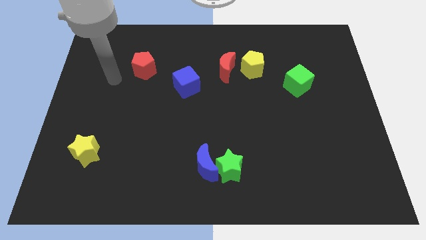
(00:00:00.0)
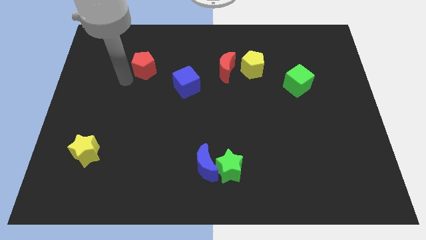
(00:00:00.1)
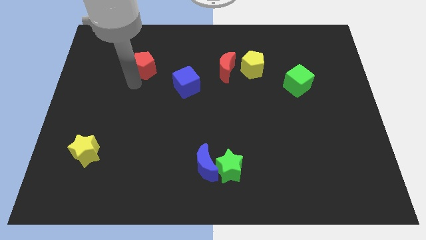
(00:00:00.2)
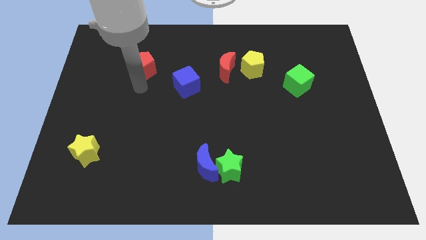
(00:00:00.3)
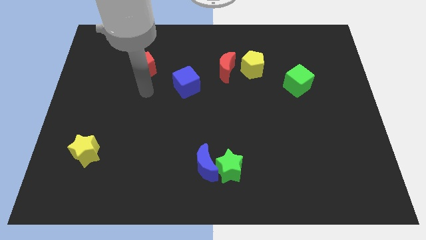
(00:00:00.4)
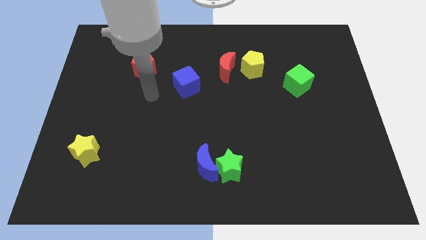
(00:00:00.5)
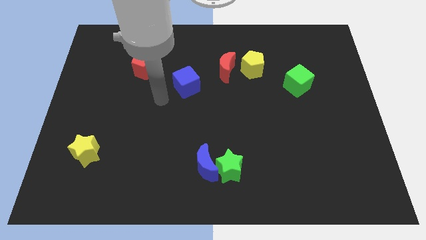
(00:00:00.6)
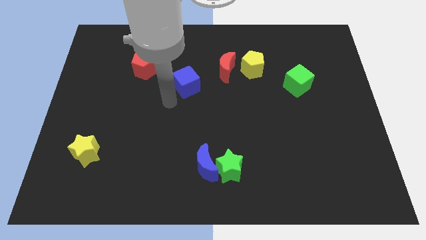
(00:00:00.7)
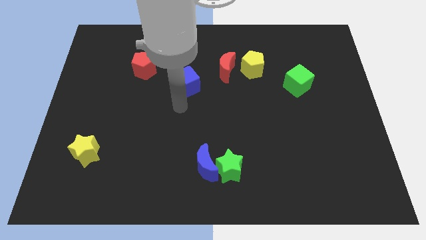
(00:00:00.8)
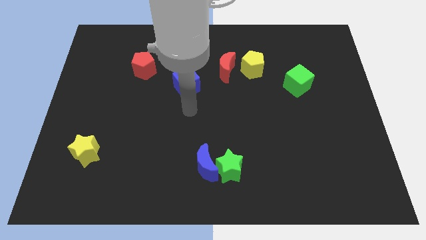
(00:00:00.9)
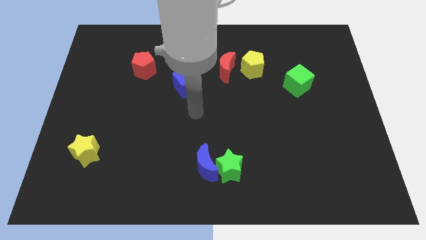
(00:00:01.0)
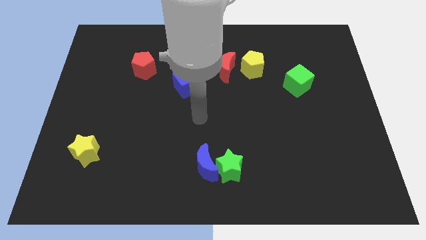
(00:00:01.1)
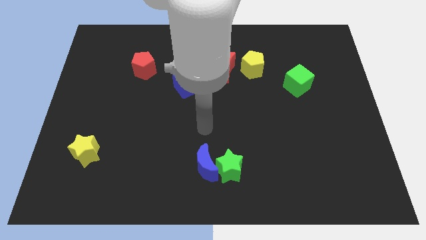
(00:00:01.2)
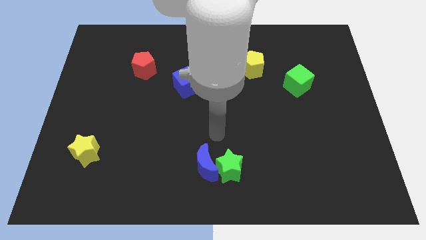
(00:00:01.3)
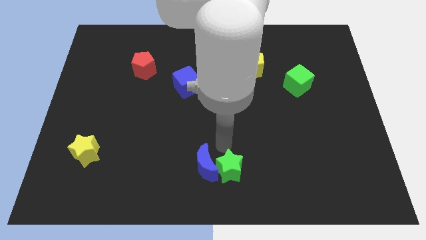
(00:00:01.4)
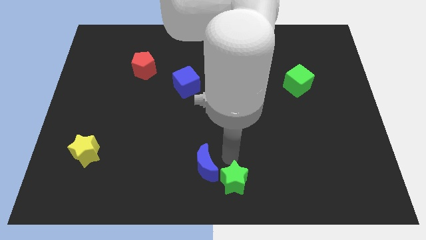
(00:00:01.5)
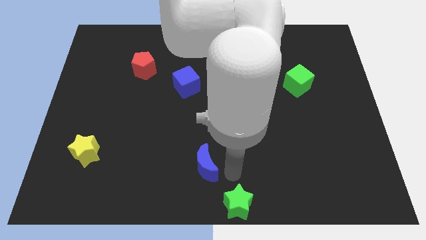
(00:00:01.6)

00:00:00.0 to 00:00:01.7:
separate the blue moon from the green star

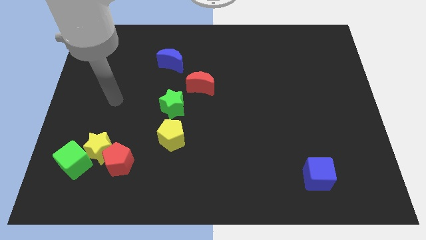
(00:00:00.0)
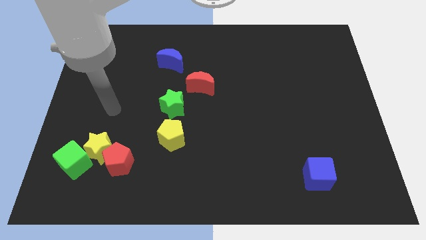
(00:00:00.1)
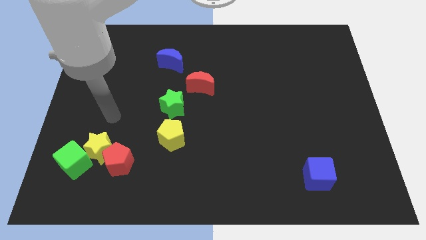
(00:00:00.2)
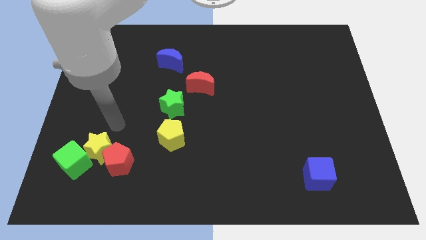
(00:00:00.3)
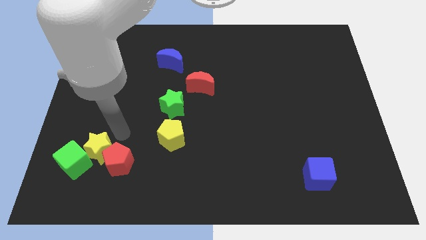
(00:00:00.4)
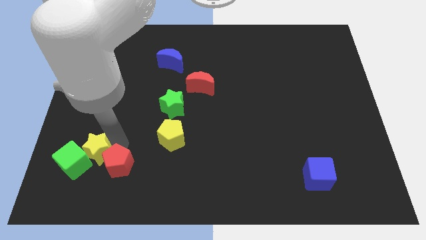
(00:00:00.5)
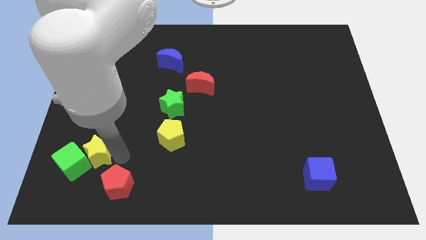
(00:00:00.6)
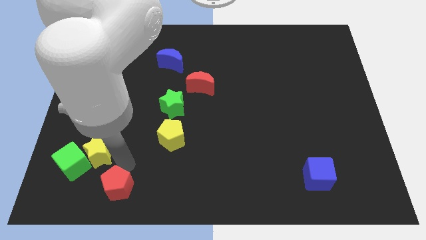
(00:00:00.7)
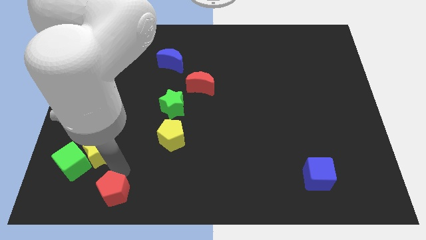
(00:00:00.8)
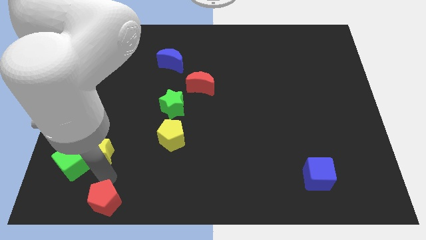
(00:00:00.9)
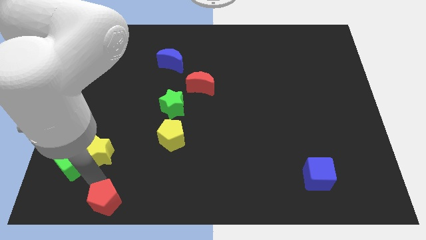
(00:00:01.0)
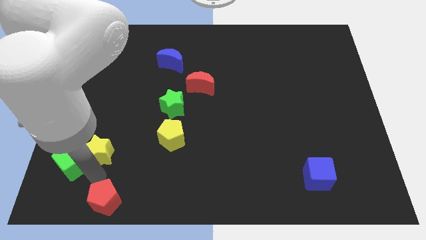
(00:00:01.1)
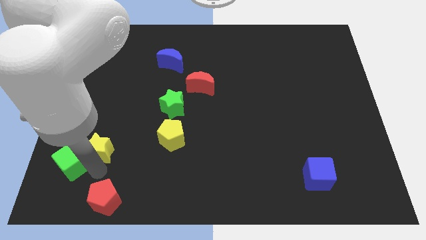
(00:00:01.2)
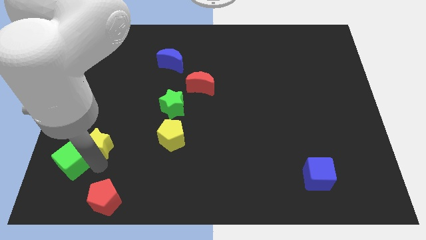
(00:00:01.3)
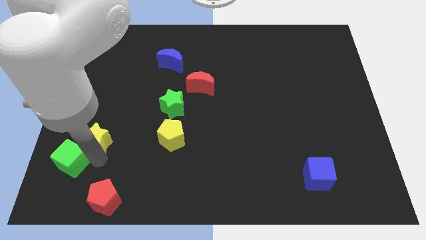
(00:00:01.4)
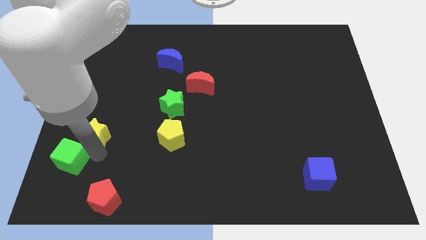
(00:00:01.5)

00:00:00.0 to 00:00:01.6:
move the yellow star away from the red pentagon and green cube

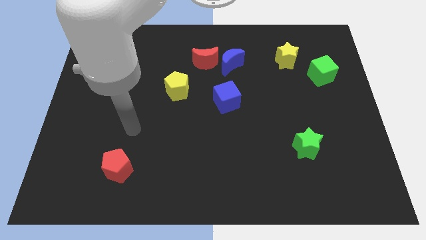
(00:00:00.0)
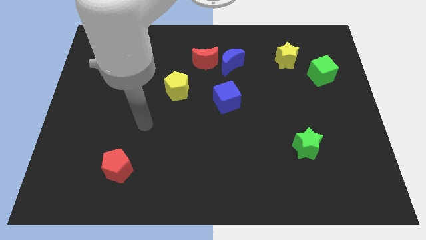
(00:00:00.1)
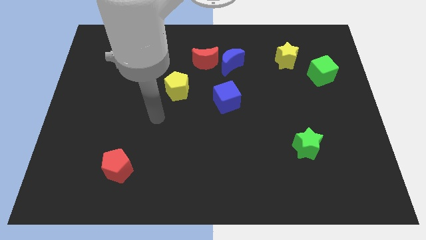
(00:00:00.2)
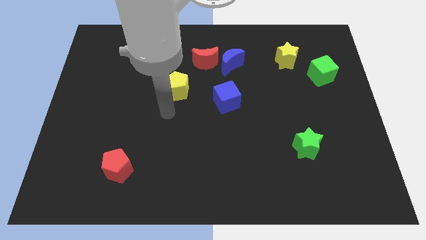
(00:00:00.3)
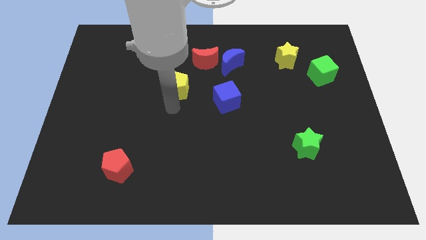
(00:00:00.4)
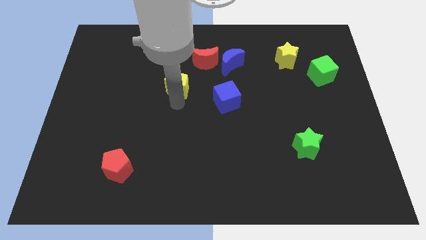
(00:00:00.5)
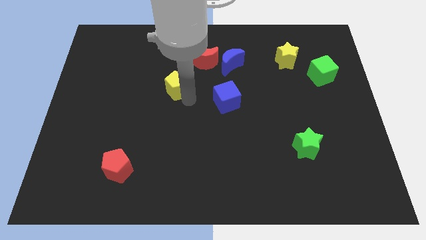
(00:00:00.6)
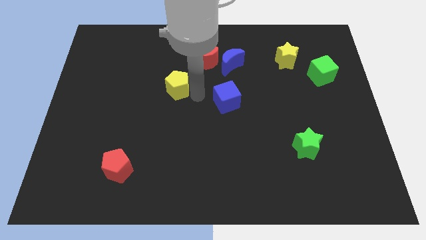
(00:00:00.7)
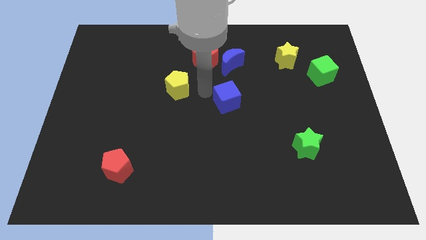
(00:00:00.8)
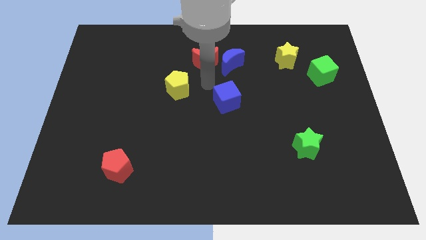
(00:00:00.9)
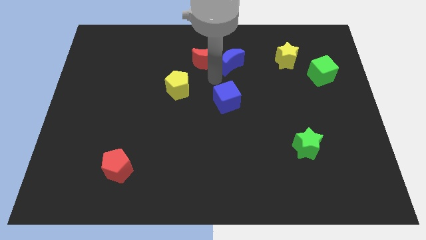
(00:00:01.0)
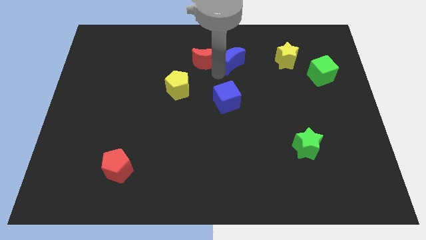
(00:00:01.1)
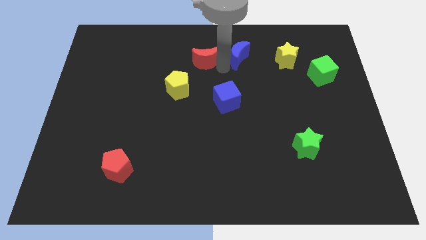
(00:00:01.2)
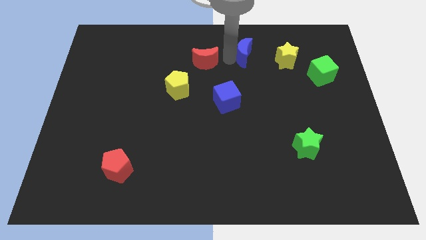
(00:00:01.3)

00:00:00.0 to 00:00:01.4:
move the red moon away from the blue moon

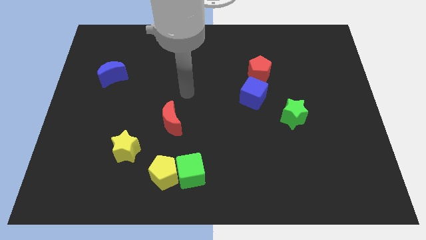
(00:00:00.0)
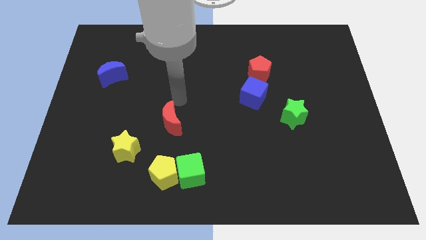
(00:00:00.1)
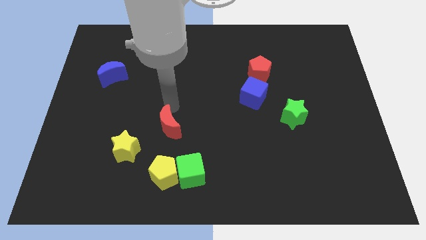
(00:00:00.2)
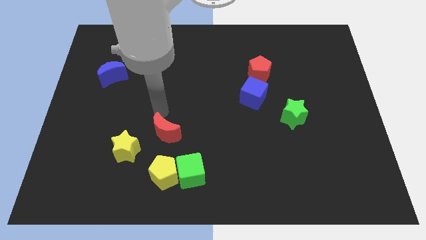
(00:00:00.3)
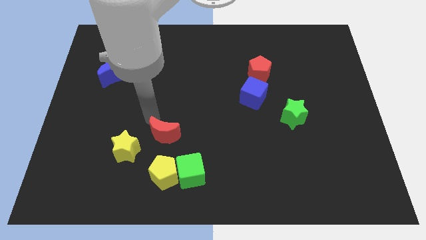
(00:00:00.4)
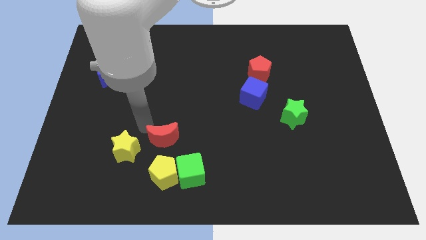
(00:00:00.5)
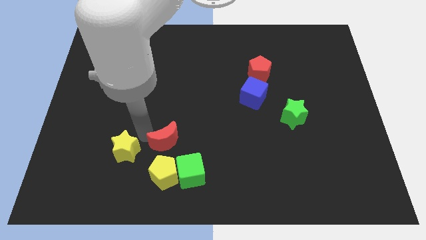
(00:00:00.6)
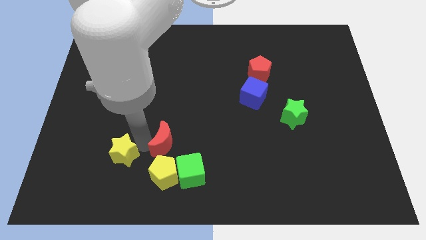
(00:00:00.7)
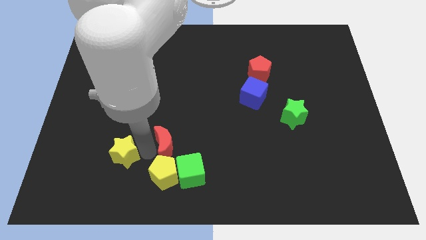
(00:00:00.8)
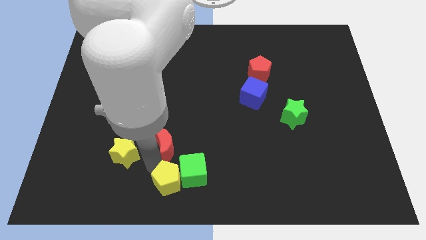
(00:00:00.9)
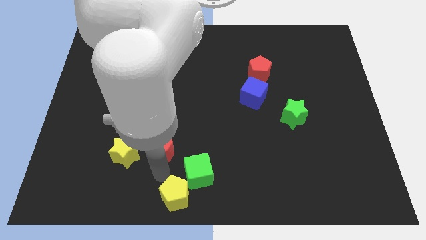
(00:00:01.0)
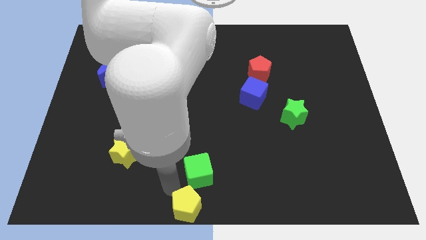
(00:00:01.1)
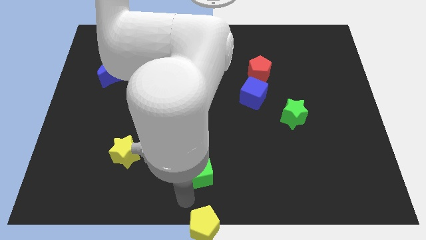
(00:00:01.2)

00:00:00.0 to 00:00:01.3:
move the green cube away from the yellow pentagon

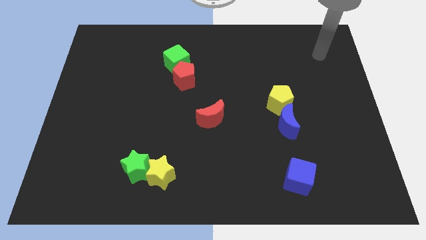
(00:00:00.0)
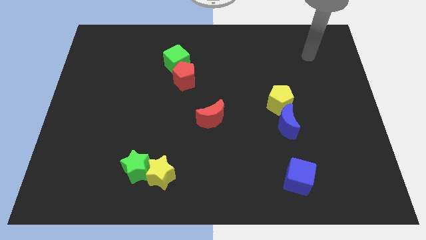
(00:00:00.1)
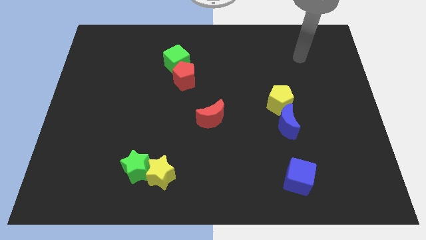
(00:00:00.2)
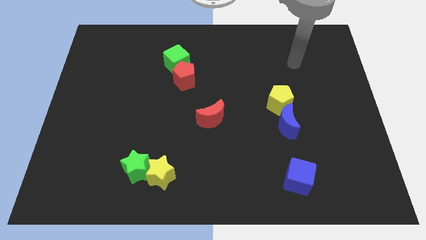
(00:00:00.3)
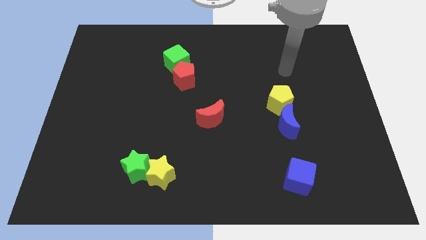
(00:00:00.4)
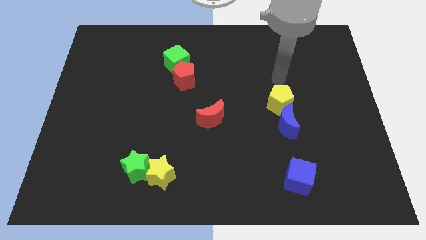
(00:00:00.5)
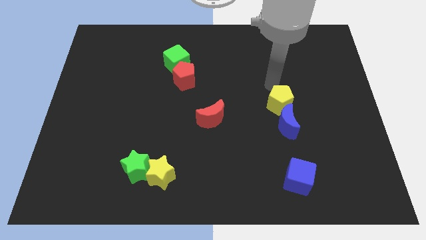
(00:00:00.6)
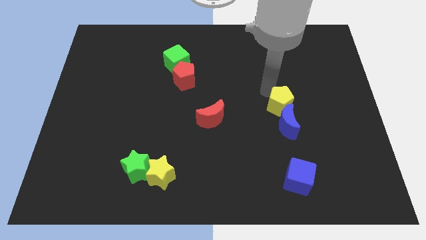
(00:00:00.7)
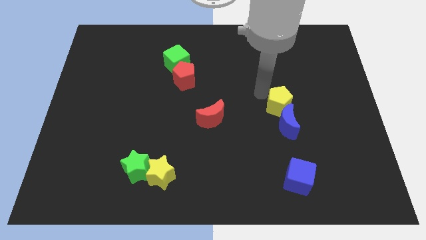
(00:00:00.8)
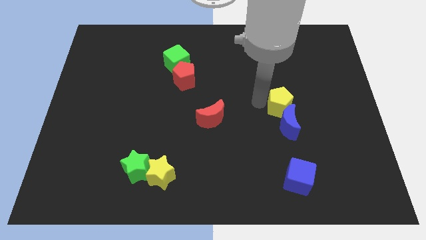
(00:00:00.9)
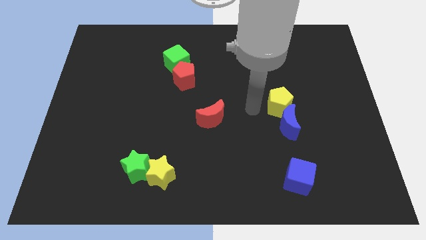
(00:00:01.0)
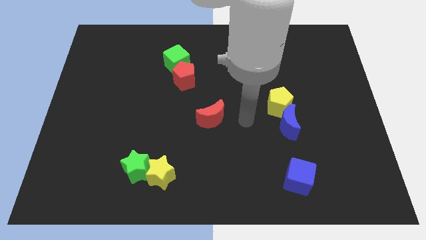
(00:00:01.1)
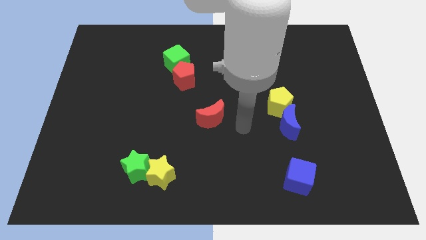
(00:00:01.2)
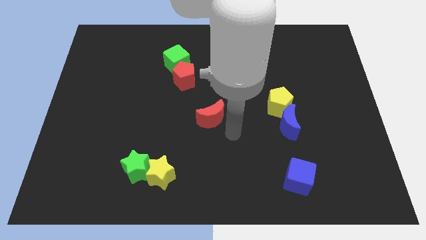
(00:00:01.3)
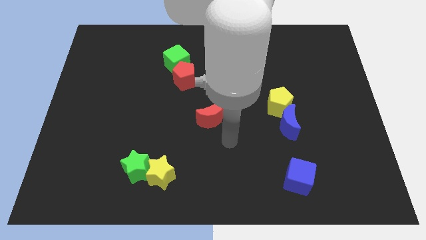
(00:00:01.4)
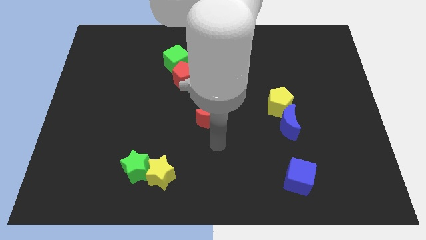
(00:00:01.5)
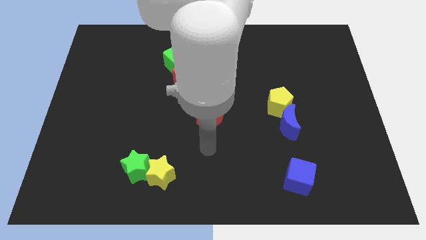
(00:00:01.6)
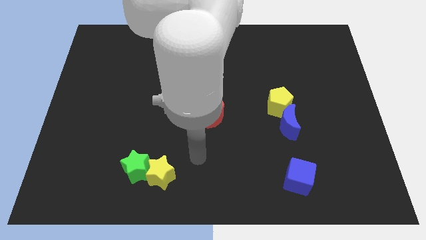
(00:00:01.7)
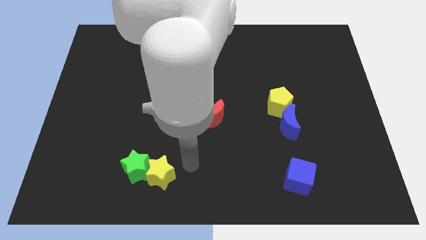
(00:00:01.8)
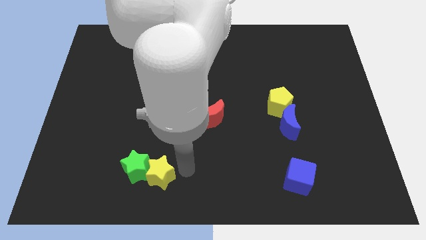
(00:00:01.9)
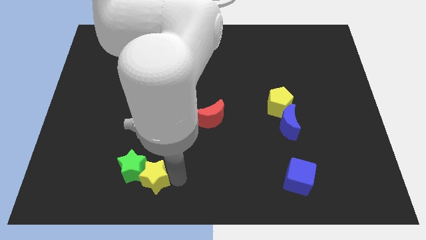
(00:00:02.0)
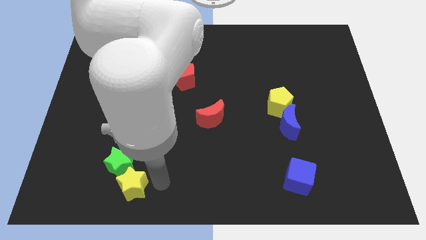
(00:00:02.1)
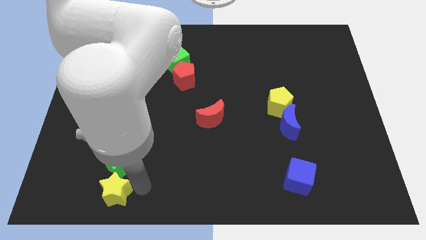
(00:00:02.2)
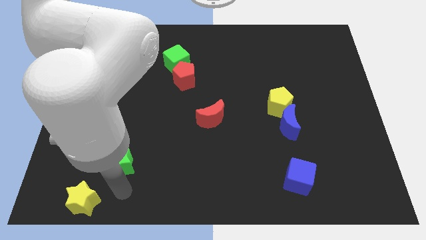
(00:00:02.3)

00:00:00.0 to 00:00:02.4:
pull the green star apart from the yellow star

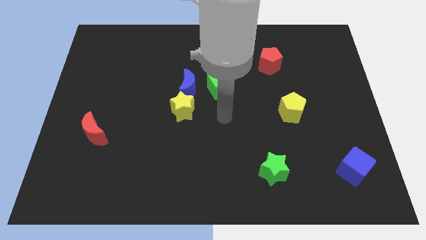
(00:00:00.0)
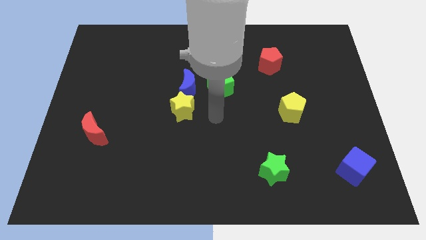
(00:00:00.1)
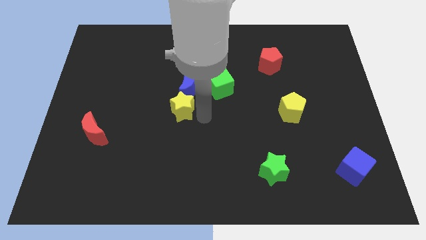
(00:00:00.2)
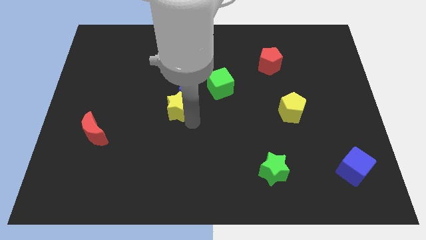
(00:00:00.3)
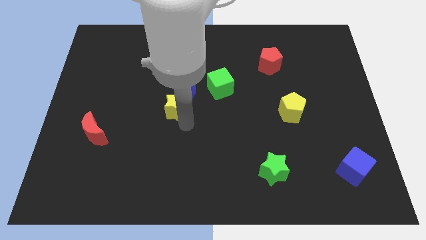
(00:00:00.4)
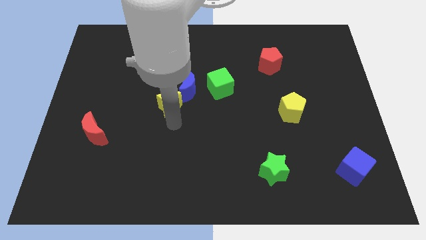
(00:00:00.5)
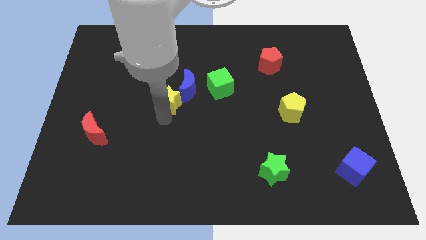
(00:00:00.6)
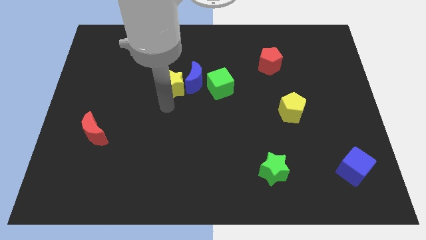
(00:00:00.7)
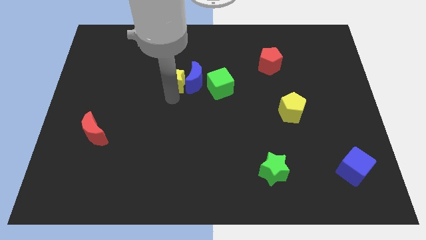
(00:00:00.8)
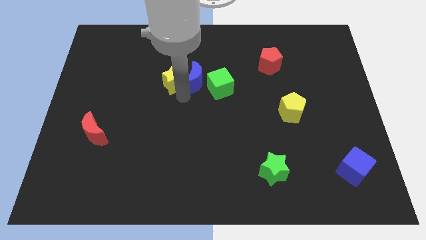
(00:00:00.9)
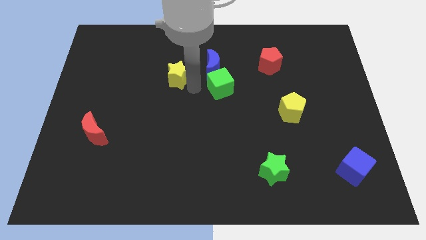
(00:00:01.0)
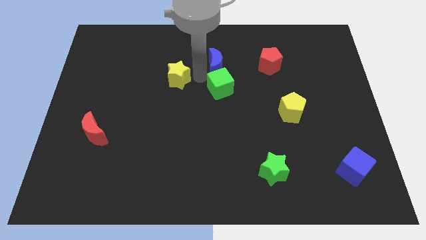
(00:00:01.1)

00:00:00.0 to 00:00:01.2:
pull the yellow star apart from the blue moon
